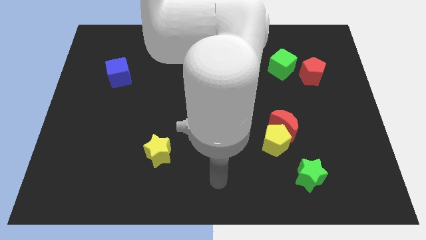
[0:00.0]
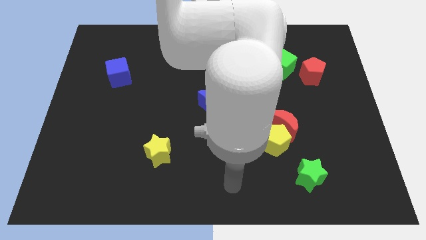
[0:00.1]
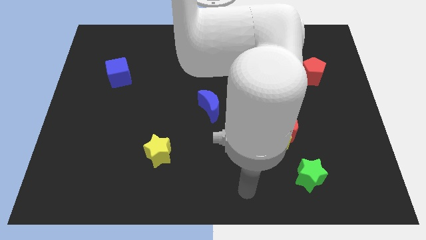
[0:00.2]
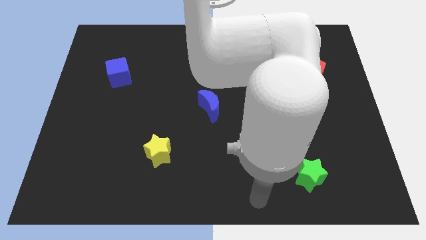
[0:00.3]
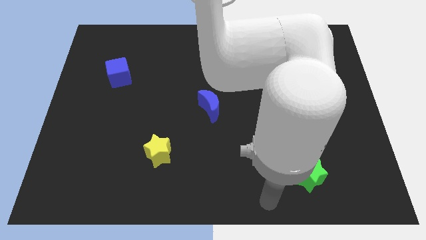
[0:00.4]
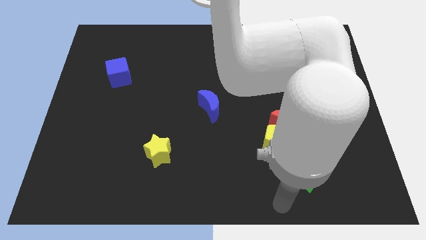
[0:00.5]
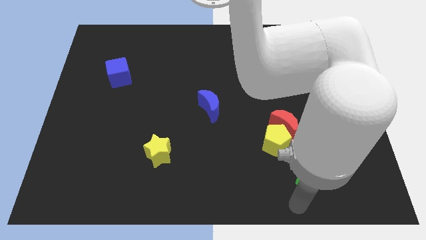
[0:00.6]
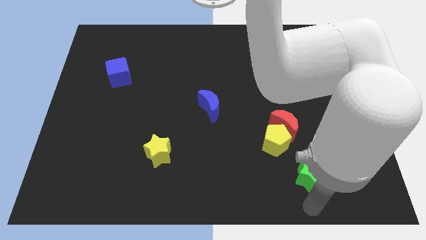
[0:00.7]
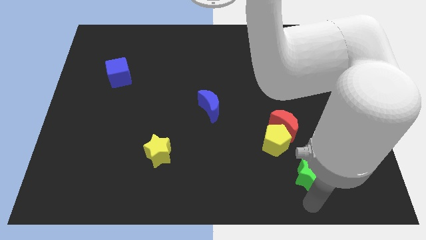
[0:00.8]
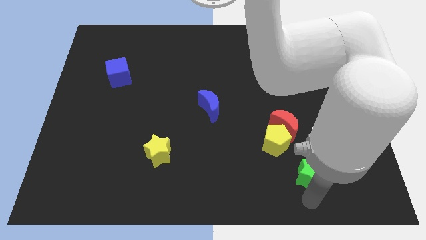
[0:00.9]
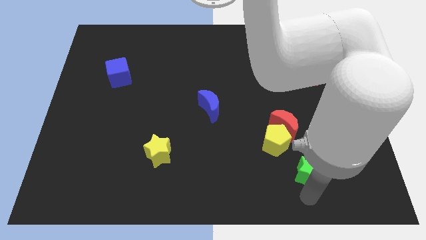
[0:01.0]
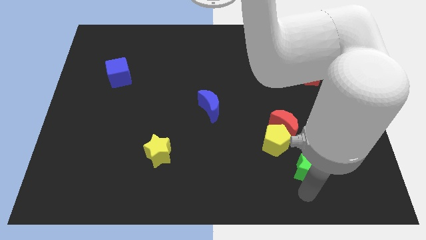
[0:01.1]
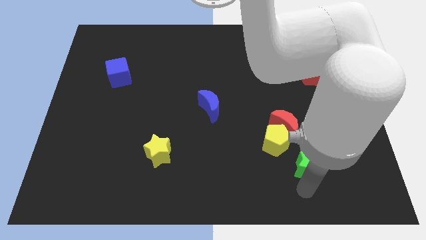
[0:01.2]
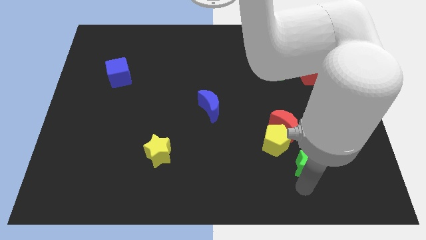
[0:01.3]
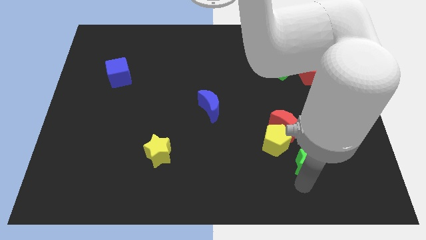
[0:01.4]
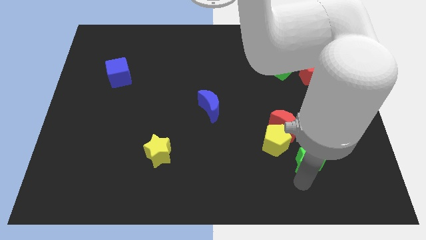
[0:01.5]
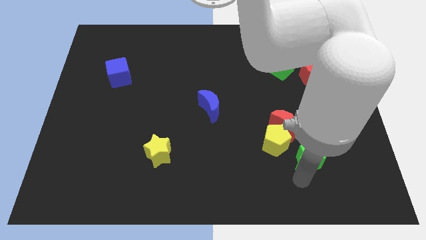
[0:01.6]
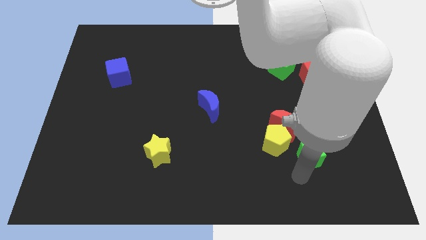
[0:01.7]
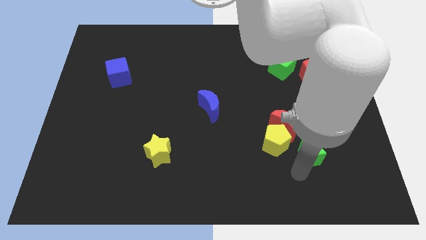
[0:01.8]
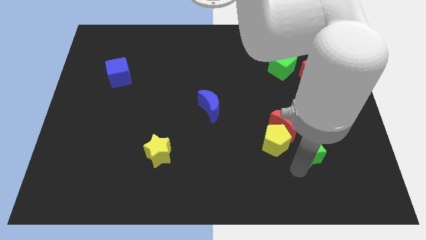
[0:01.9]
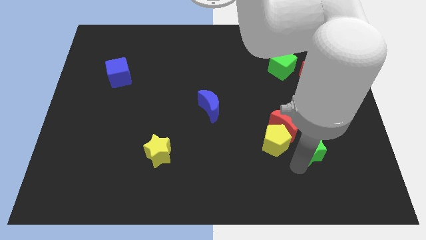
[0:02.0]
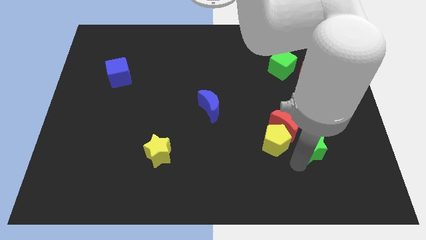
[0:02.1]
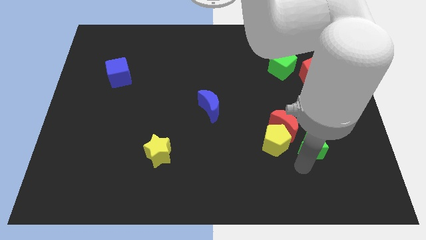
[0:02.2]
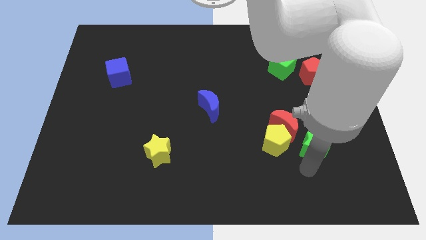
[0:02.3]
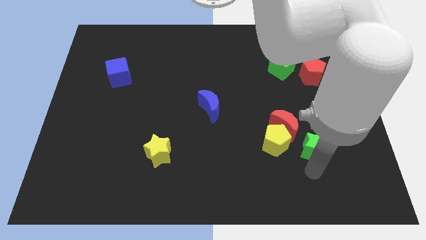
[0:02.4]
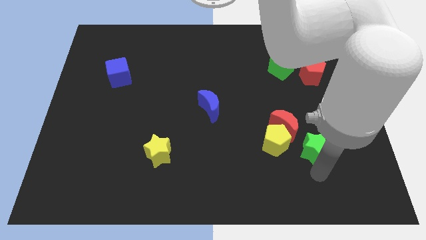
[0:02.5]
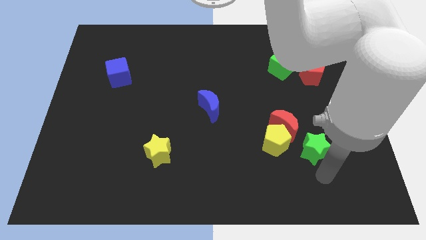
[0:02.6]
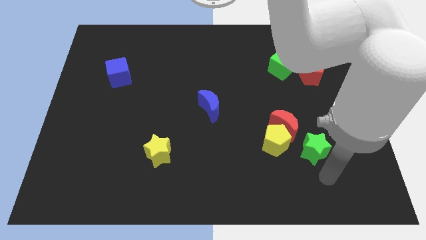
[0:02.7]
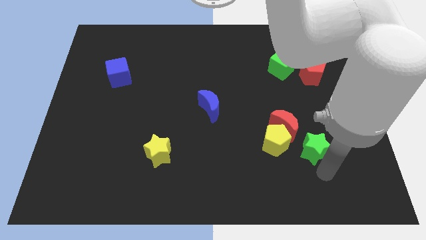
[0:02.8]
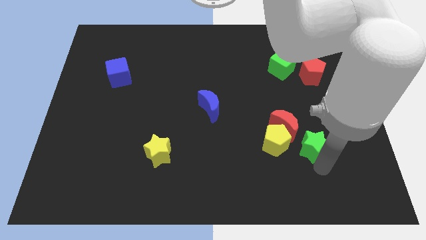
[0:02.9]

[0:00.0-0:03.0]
push the green star up a bit

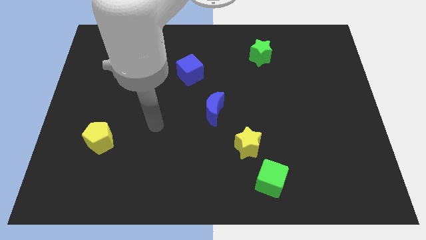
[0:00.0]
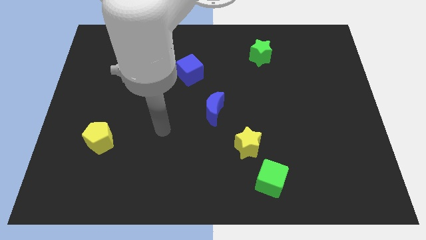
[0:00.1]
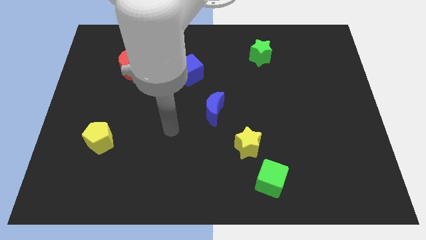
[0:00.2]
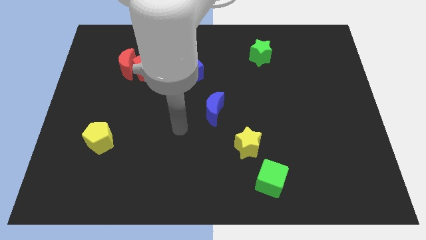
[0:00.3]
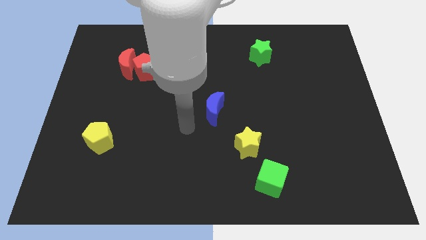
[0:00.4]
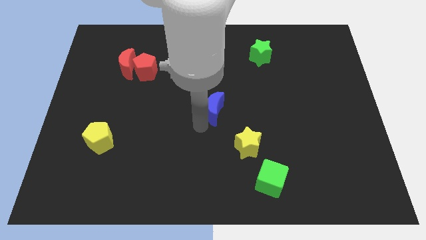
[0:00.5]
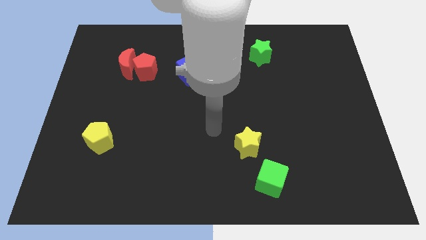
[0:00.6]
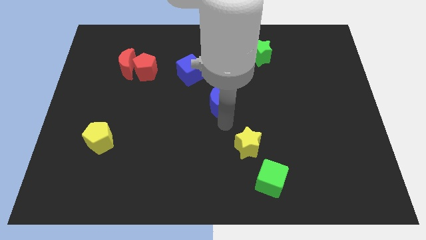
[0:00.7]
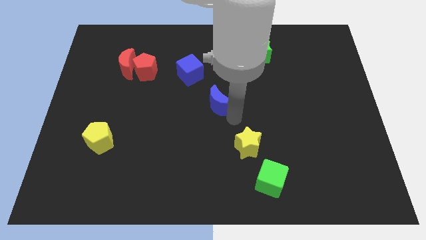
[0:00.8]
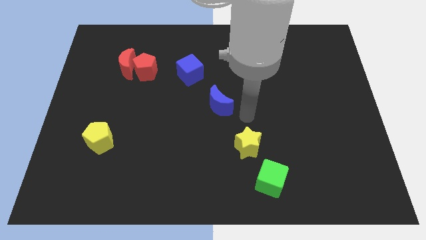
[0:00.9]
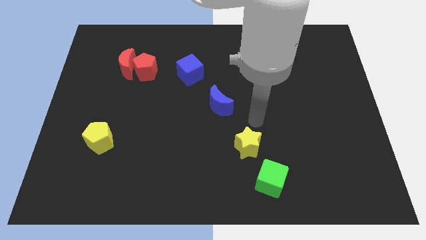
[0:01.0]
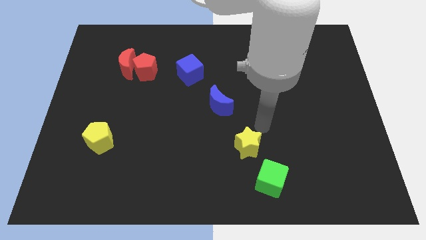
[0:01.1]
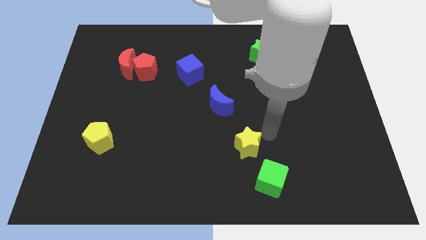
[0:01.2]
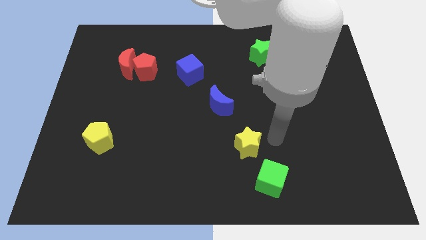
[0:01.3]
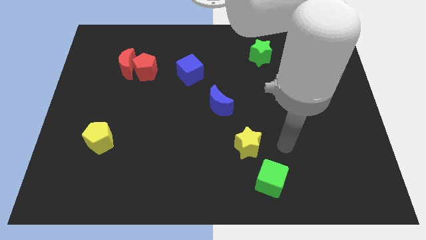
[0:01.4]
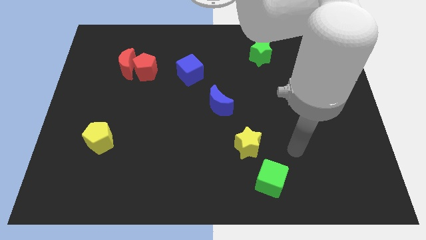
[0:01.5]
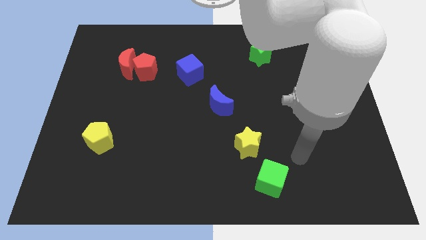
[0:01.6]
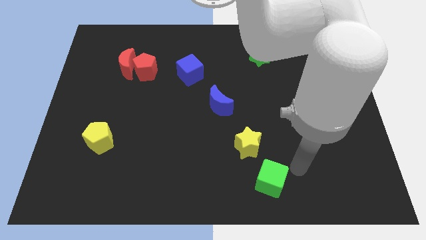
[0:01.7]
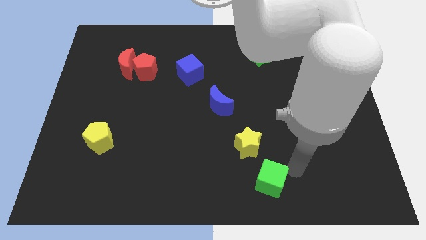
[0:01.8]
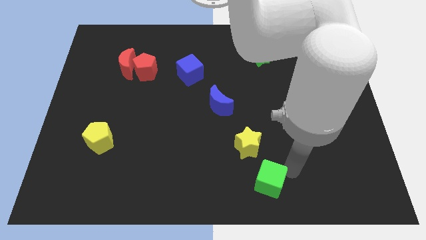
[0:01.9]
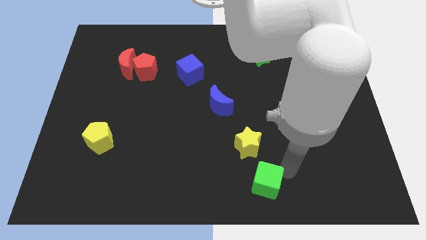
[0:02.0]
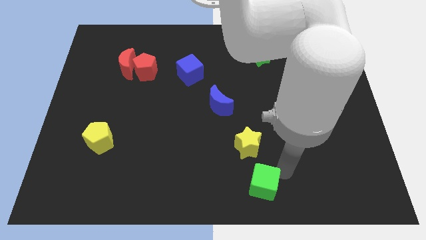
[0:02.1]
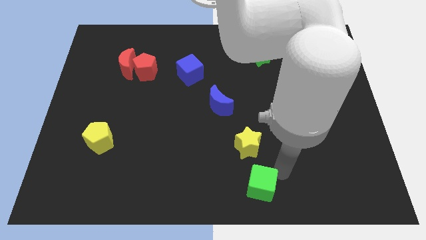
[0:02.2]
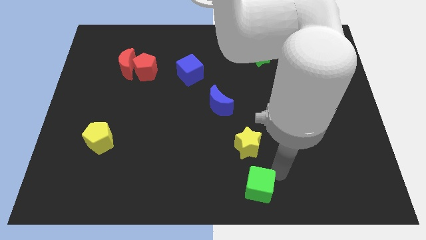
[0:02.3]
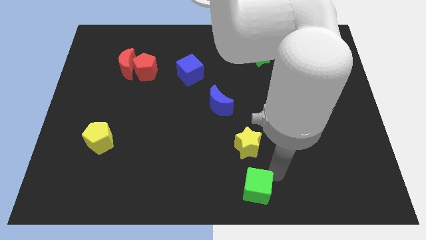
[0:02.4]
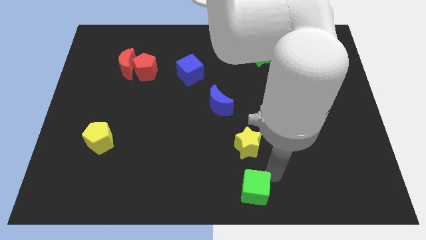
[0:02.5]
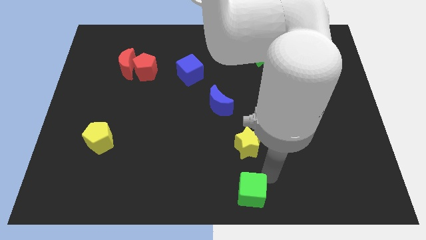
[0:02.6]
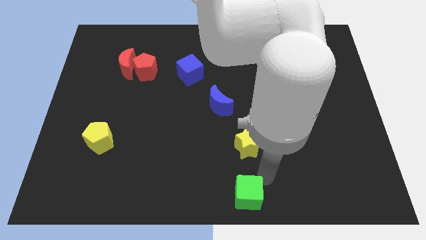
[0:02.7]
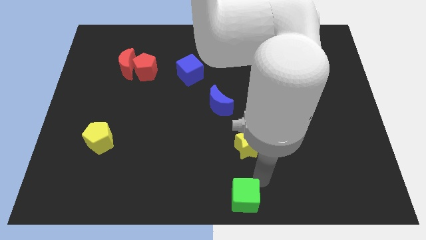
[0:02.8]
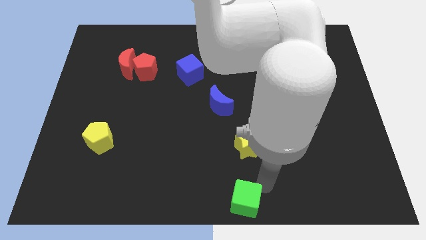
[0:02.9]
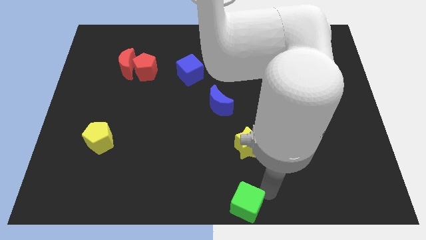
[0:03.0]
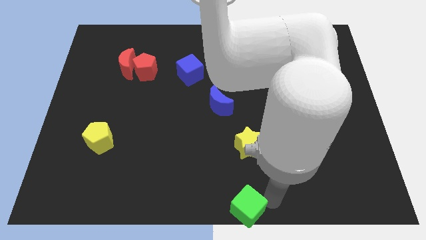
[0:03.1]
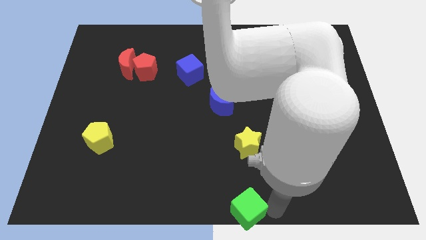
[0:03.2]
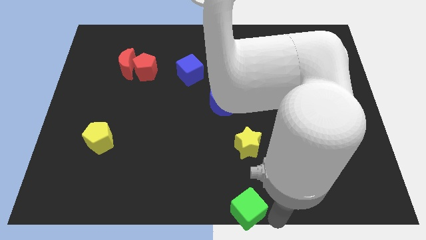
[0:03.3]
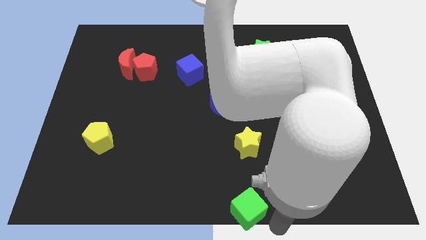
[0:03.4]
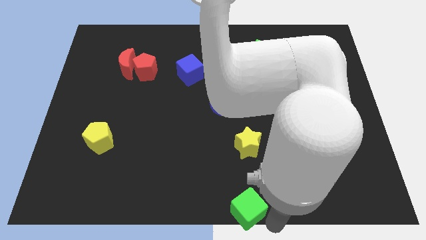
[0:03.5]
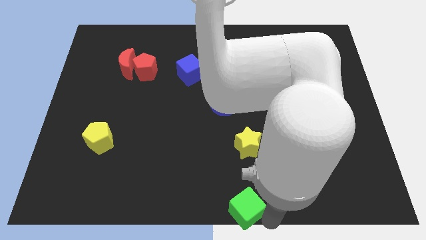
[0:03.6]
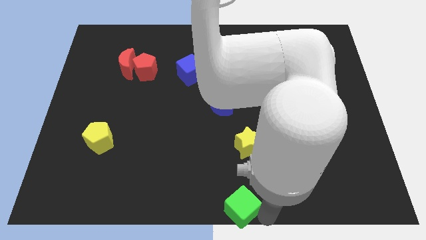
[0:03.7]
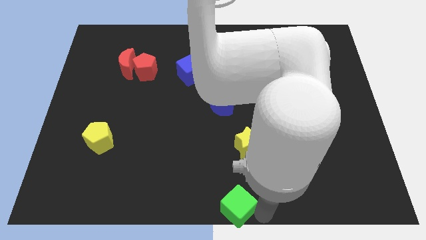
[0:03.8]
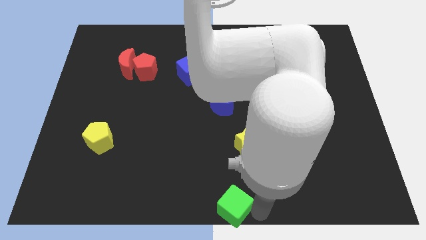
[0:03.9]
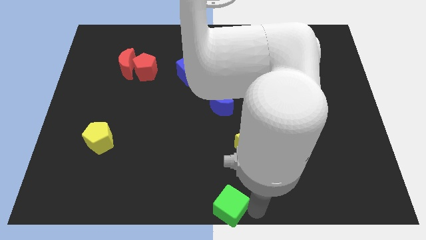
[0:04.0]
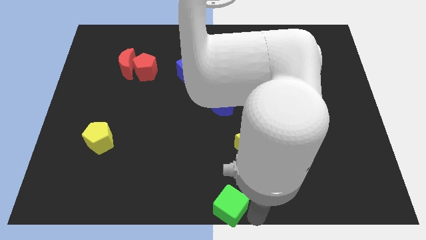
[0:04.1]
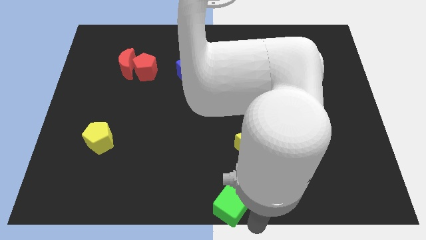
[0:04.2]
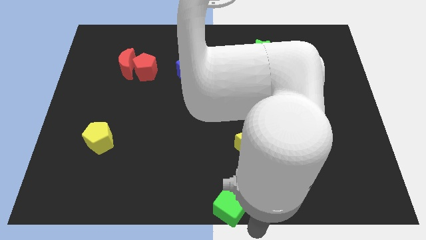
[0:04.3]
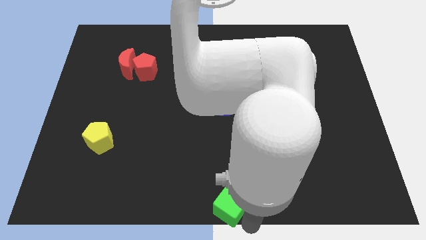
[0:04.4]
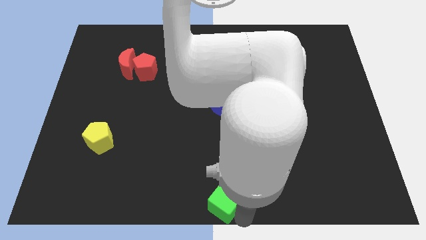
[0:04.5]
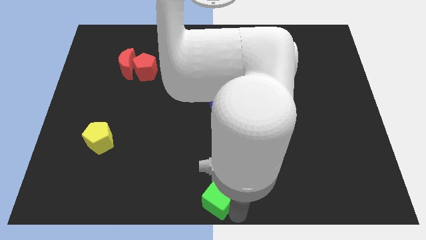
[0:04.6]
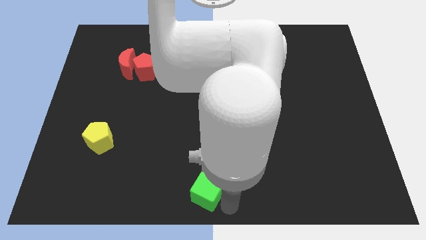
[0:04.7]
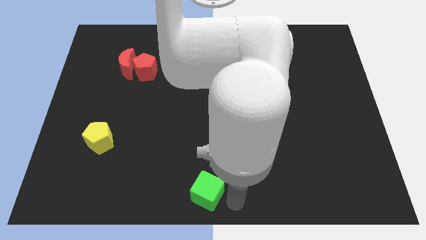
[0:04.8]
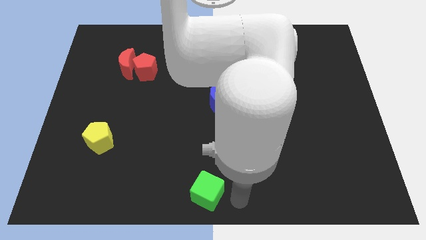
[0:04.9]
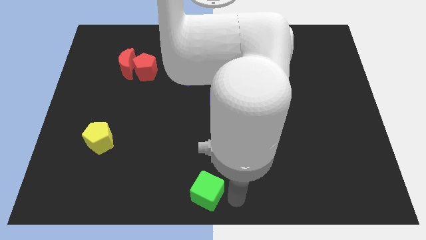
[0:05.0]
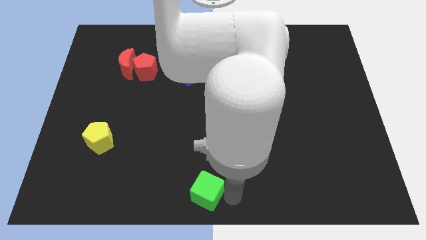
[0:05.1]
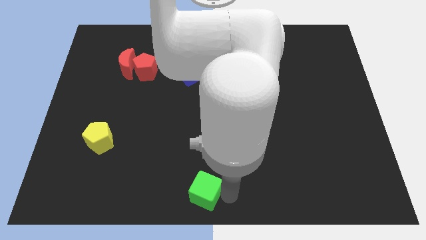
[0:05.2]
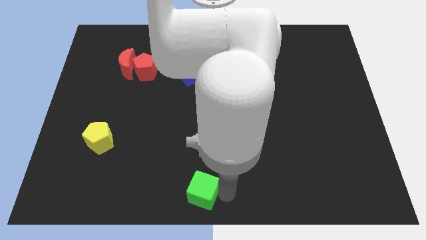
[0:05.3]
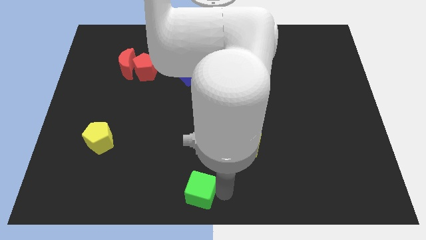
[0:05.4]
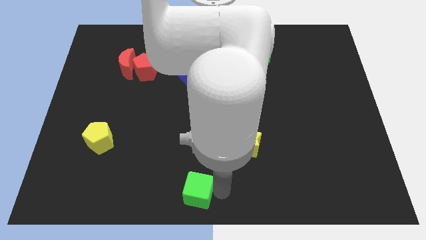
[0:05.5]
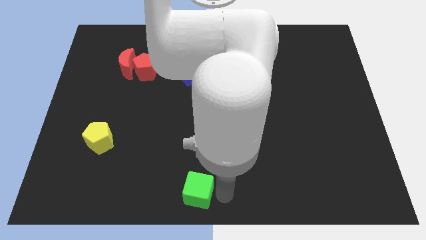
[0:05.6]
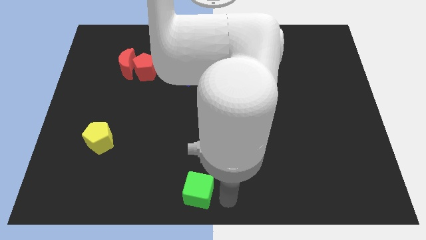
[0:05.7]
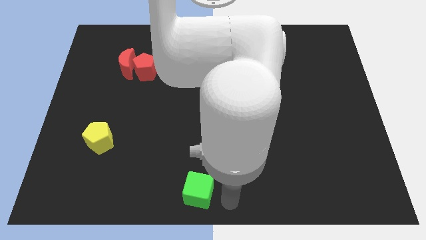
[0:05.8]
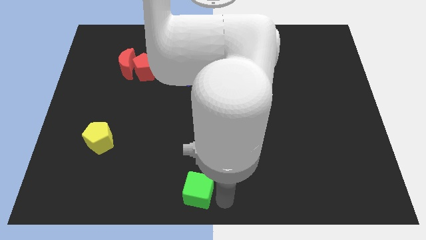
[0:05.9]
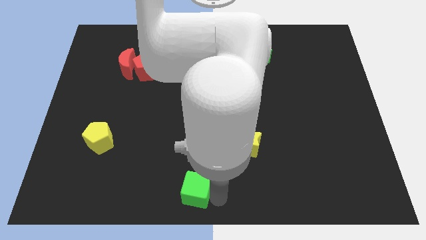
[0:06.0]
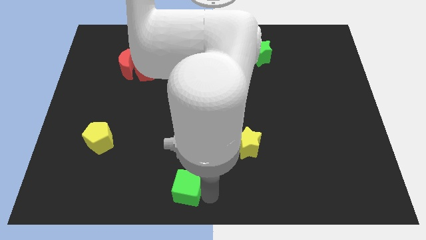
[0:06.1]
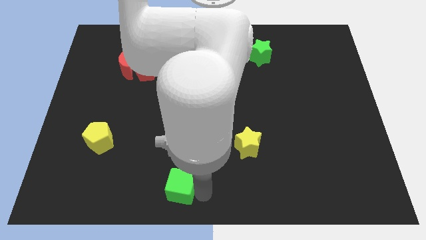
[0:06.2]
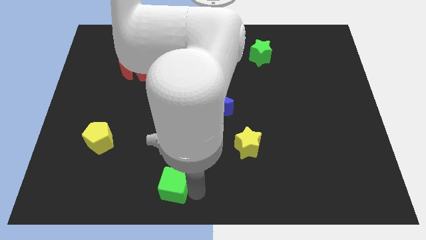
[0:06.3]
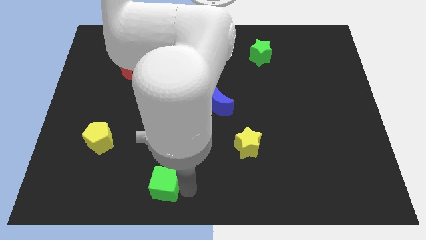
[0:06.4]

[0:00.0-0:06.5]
move the green cube to the left
